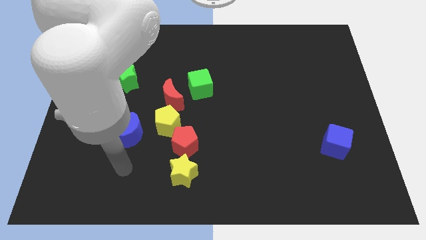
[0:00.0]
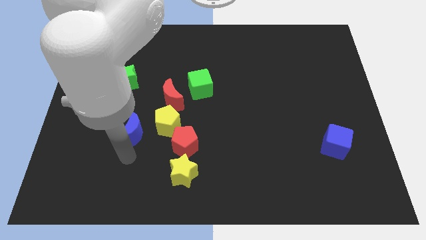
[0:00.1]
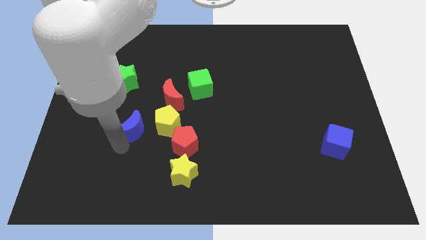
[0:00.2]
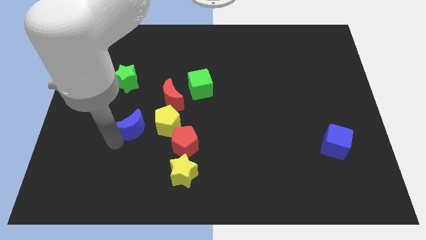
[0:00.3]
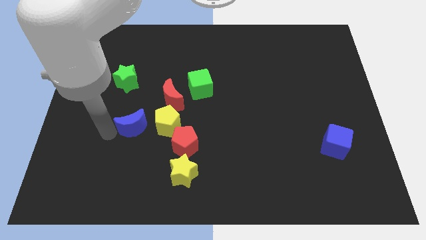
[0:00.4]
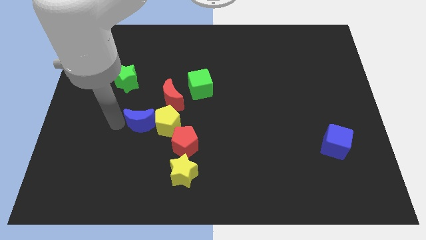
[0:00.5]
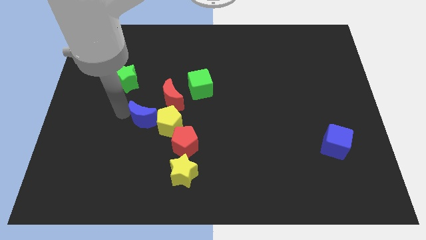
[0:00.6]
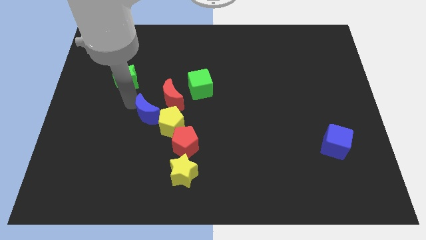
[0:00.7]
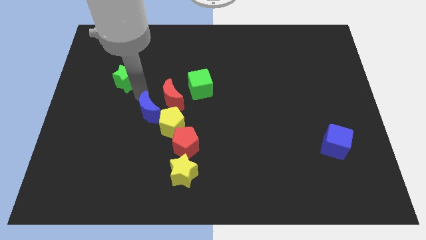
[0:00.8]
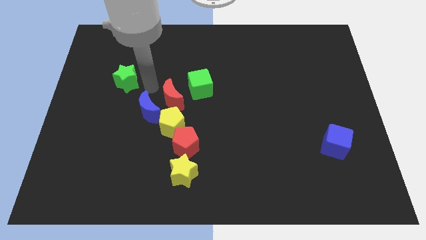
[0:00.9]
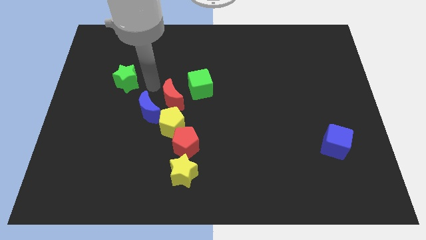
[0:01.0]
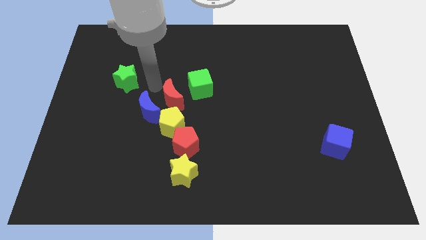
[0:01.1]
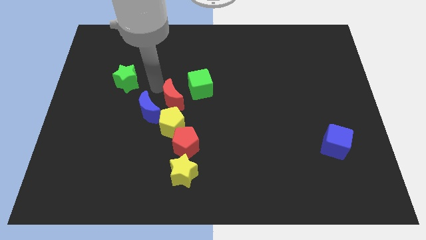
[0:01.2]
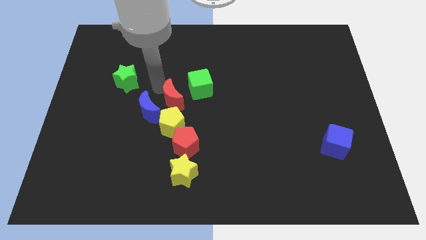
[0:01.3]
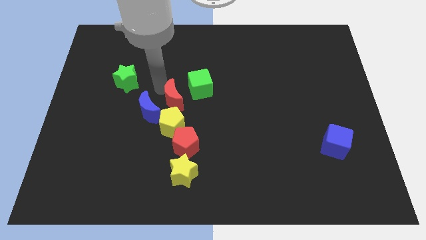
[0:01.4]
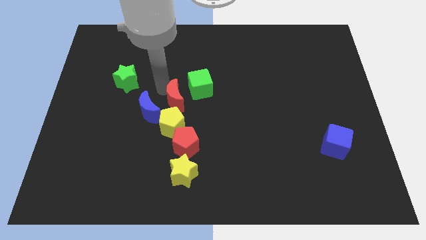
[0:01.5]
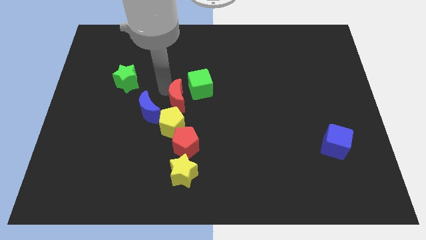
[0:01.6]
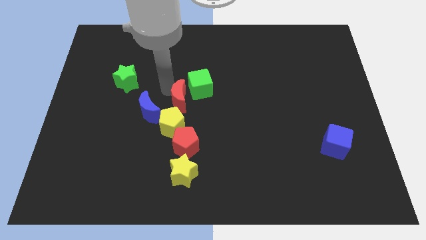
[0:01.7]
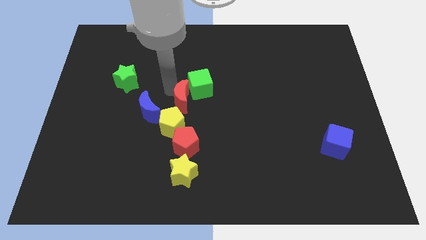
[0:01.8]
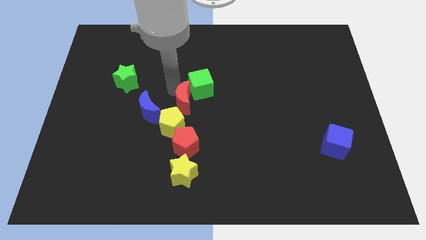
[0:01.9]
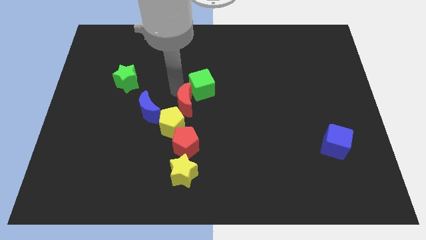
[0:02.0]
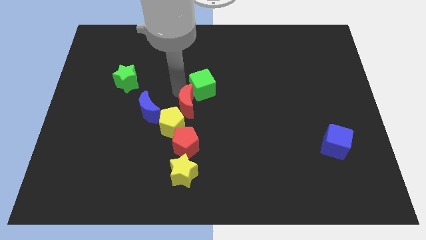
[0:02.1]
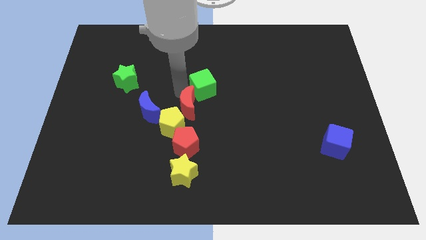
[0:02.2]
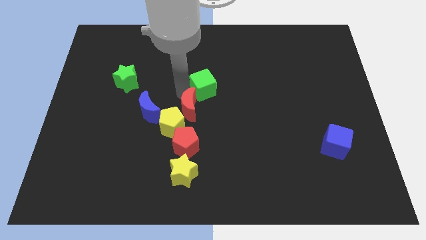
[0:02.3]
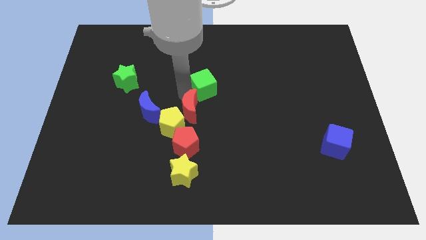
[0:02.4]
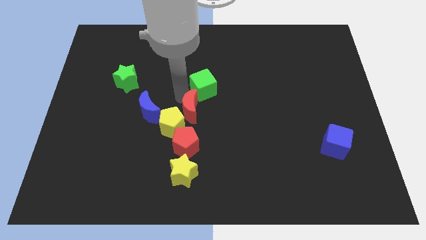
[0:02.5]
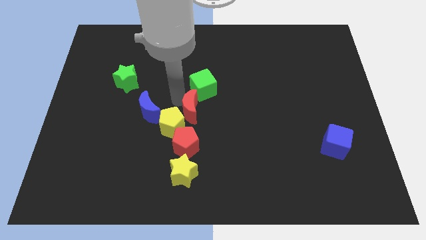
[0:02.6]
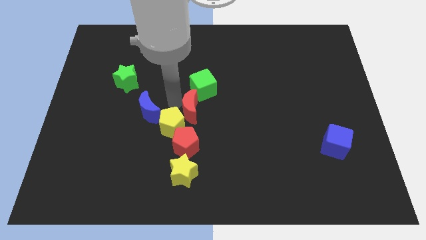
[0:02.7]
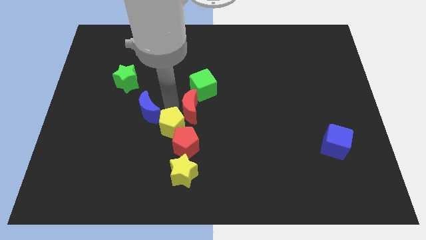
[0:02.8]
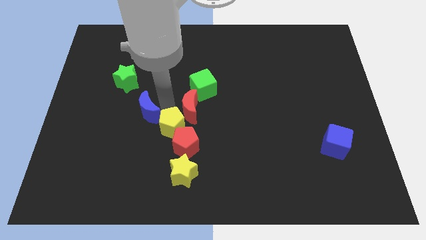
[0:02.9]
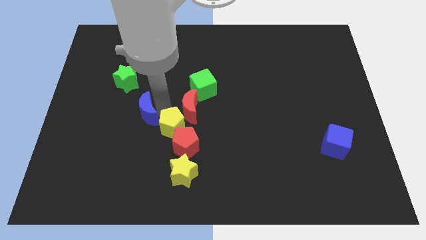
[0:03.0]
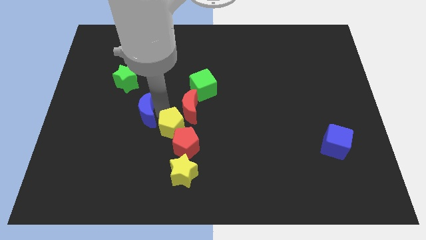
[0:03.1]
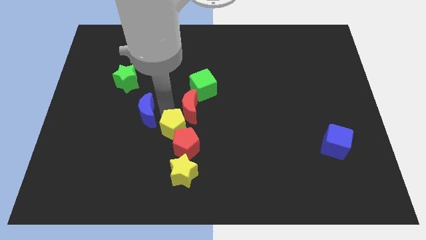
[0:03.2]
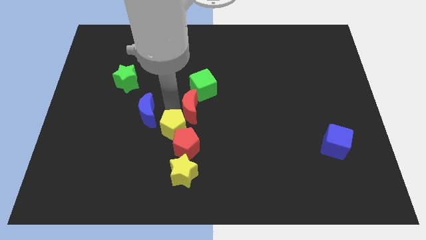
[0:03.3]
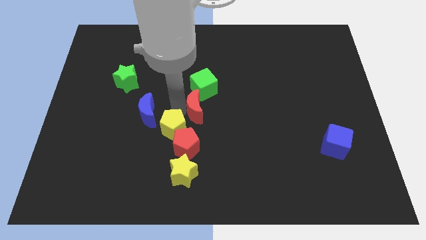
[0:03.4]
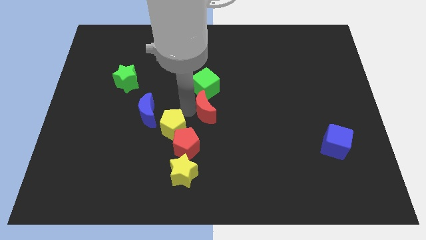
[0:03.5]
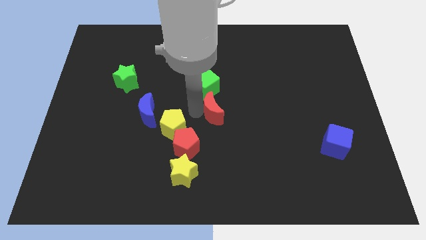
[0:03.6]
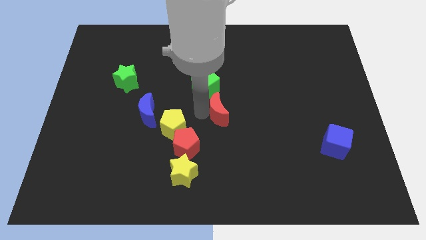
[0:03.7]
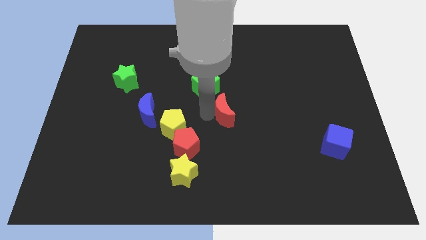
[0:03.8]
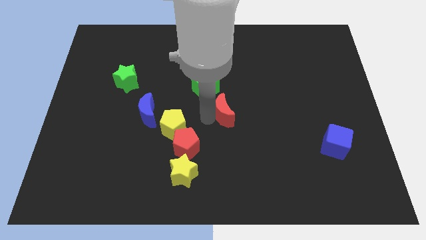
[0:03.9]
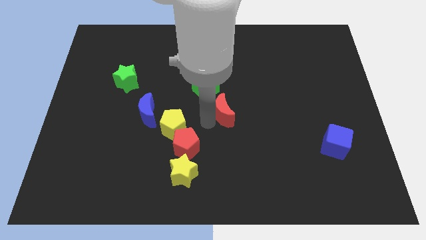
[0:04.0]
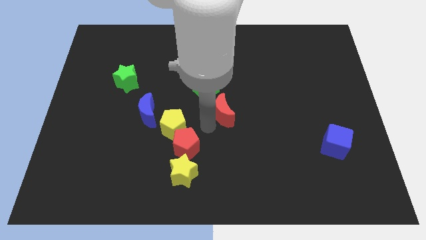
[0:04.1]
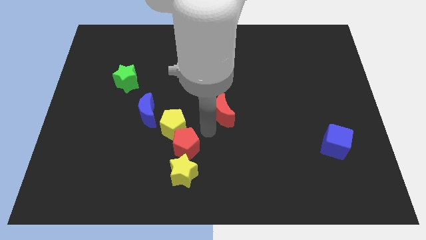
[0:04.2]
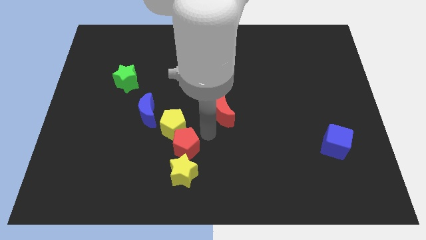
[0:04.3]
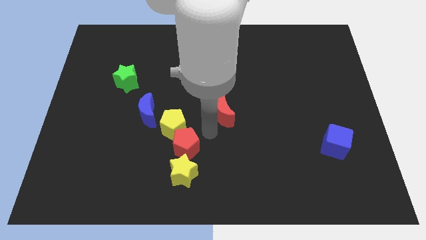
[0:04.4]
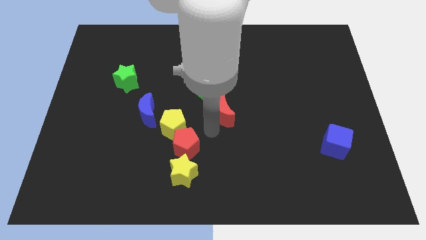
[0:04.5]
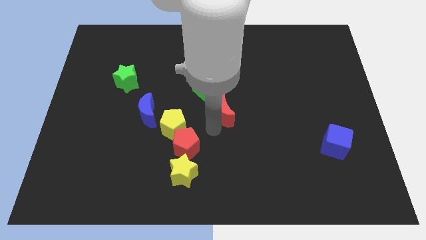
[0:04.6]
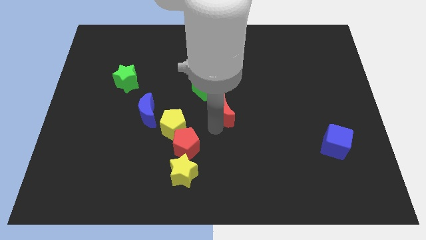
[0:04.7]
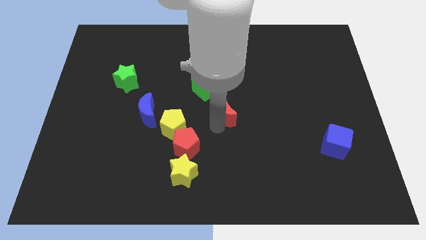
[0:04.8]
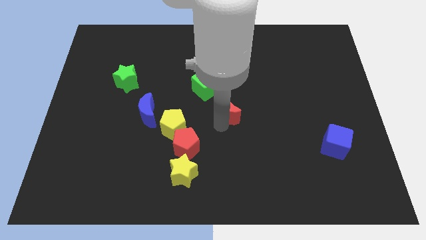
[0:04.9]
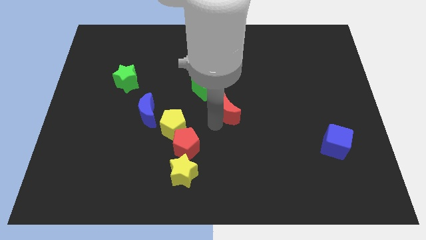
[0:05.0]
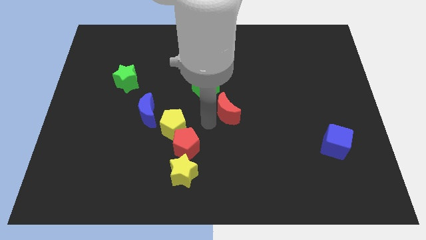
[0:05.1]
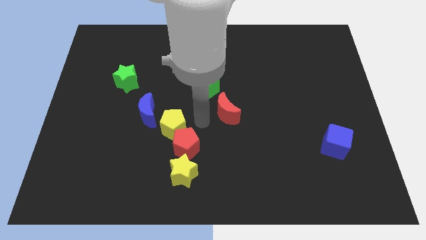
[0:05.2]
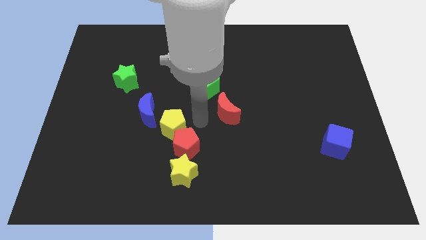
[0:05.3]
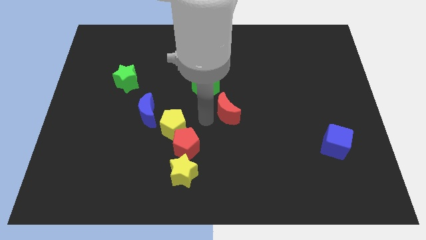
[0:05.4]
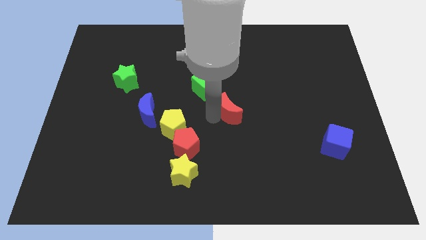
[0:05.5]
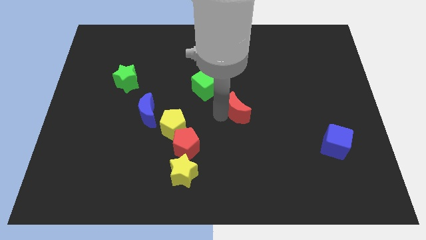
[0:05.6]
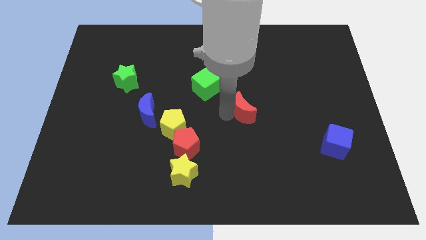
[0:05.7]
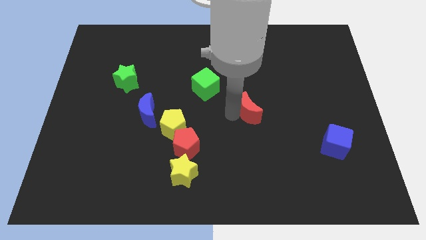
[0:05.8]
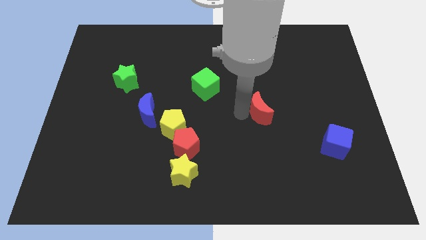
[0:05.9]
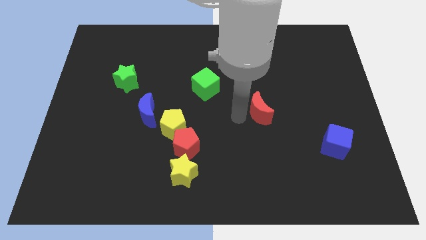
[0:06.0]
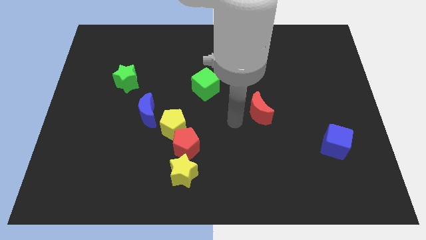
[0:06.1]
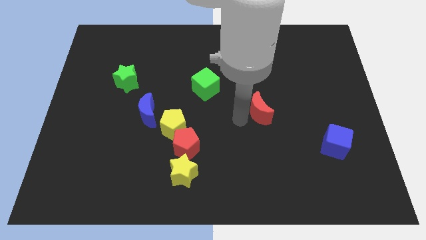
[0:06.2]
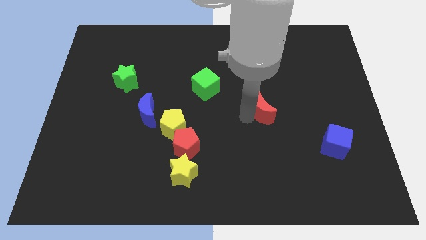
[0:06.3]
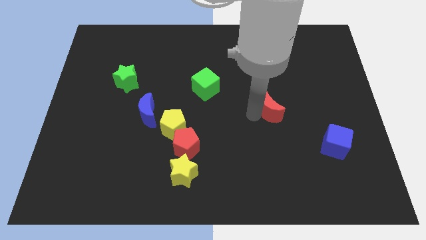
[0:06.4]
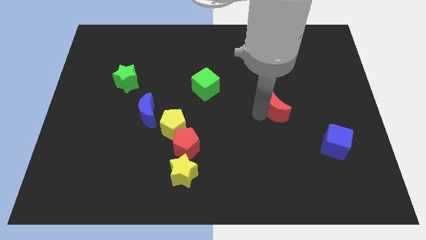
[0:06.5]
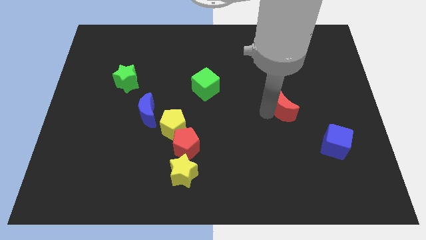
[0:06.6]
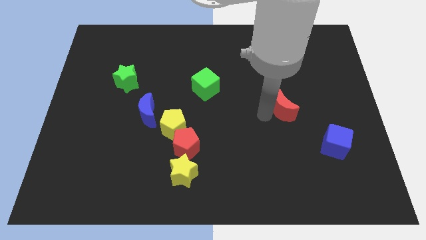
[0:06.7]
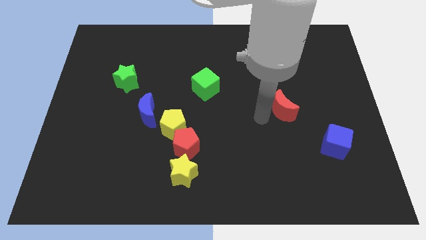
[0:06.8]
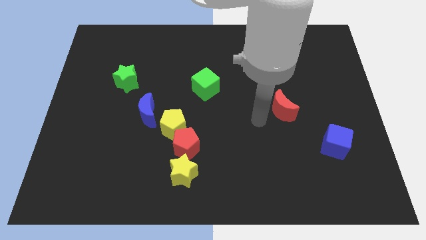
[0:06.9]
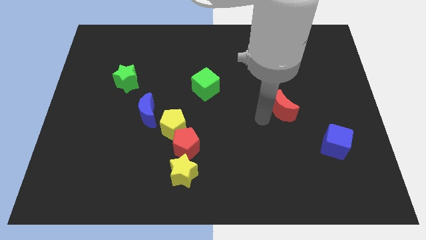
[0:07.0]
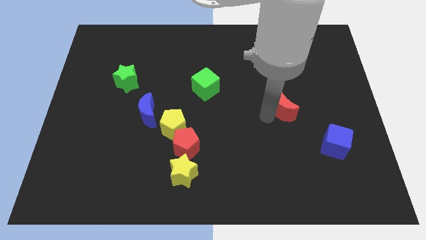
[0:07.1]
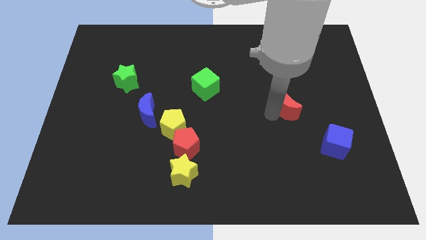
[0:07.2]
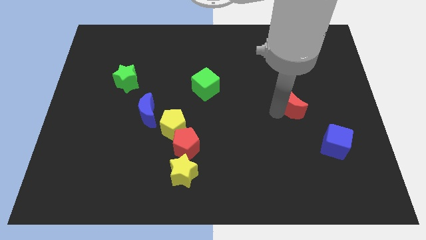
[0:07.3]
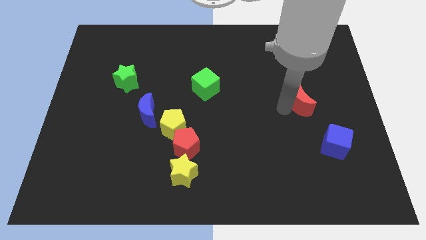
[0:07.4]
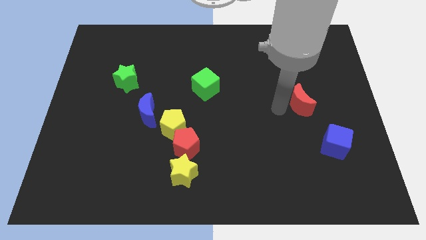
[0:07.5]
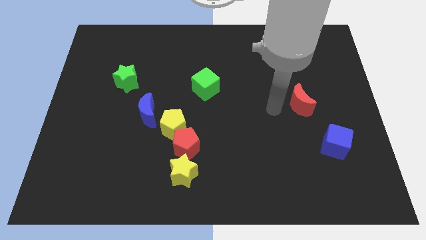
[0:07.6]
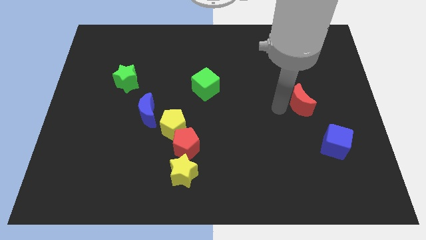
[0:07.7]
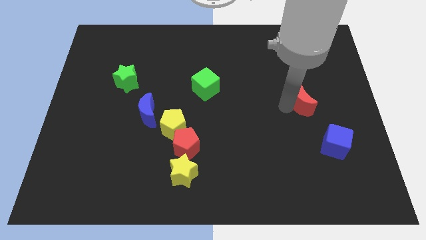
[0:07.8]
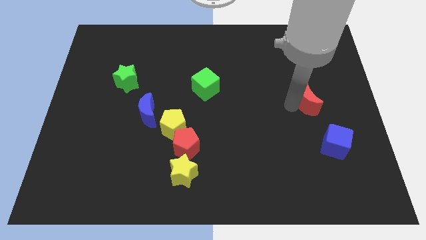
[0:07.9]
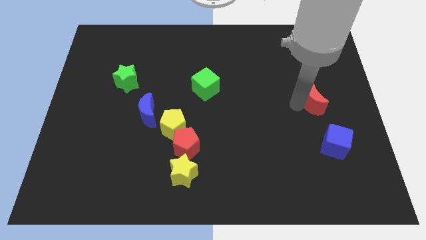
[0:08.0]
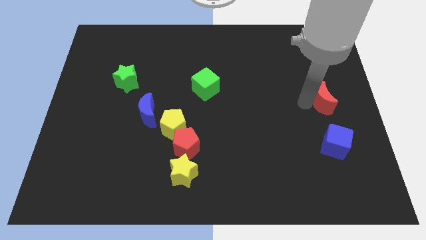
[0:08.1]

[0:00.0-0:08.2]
move the red moon to the center right
